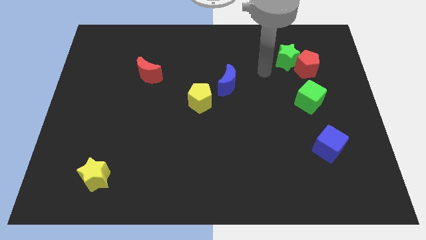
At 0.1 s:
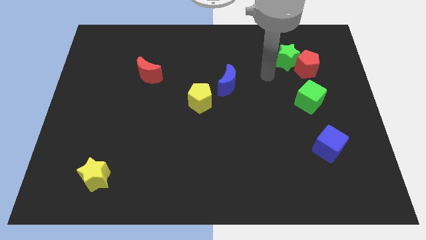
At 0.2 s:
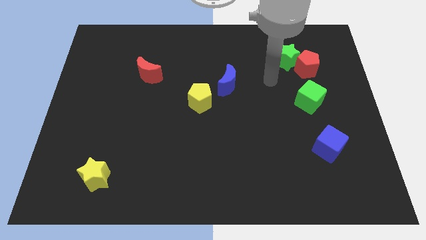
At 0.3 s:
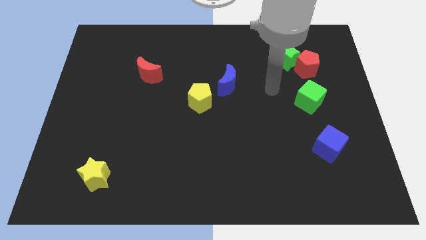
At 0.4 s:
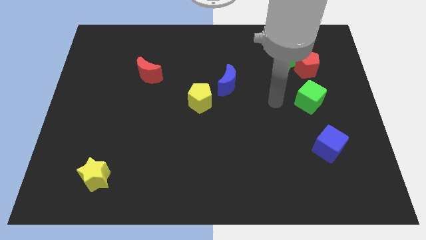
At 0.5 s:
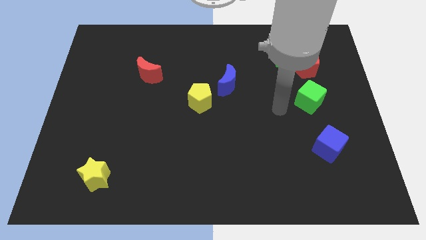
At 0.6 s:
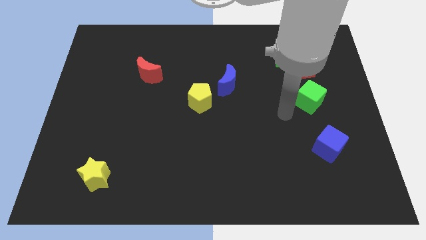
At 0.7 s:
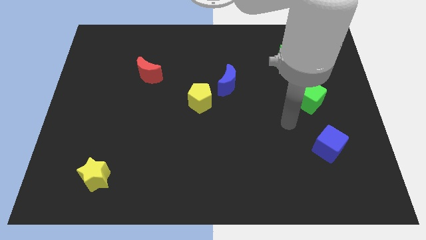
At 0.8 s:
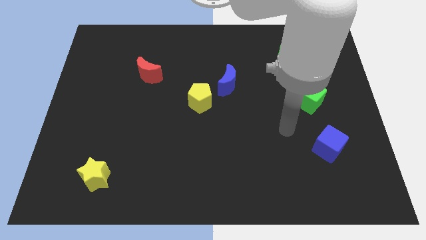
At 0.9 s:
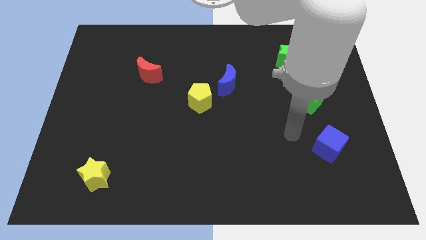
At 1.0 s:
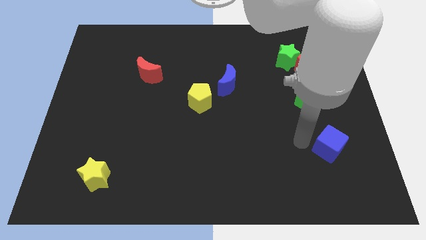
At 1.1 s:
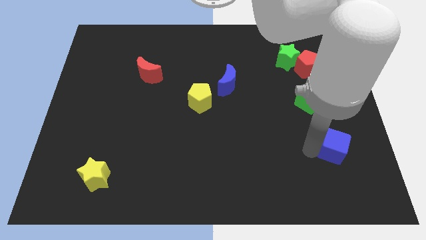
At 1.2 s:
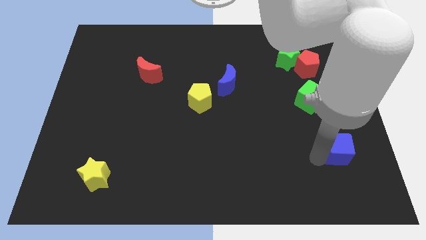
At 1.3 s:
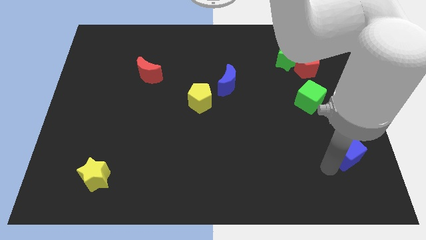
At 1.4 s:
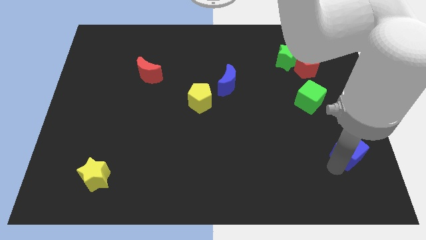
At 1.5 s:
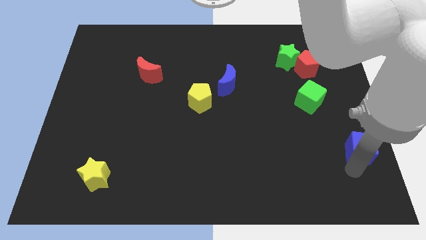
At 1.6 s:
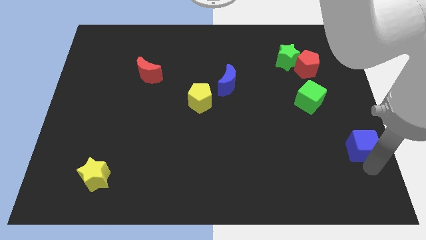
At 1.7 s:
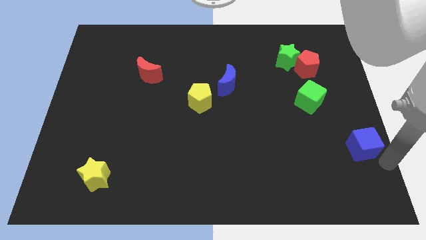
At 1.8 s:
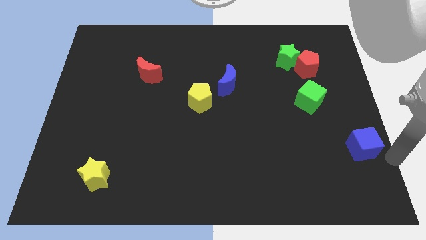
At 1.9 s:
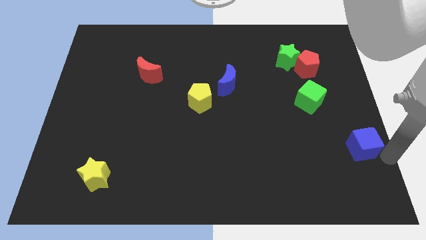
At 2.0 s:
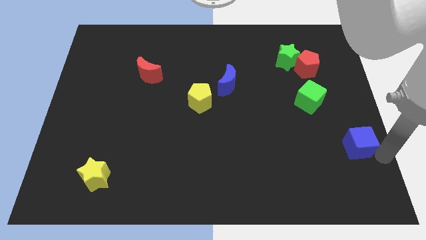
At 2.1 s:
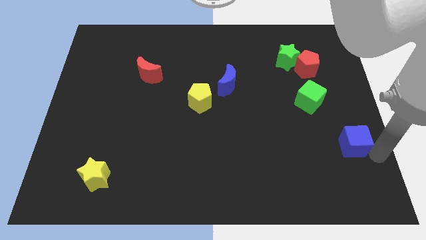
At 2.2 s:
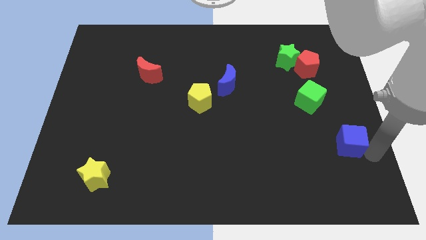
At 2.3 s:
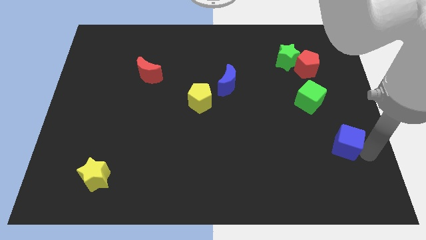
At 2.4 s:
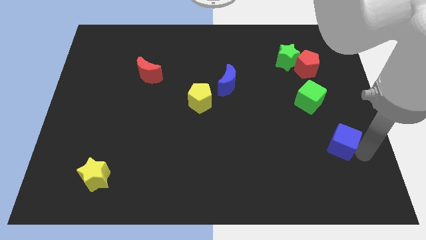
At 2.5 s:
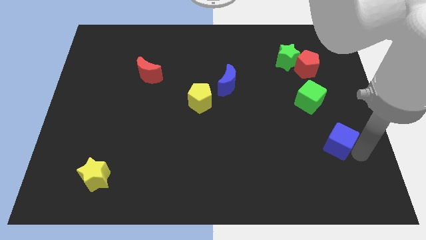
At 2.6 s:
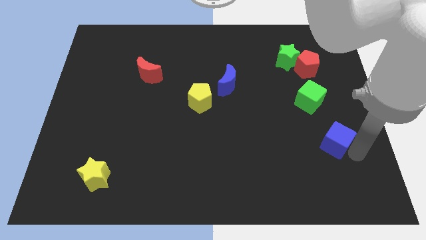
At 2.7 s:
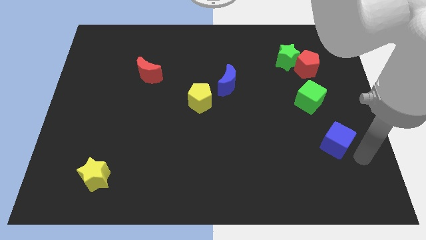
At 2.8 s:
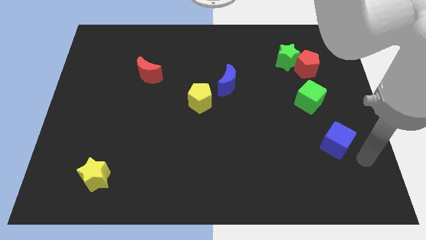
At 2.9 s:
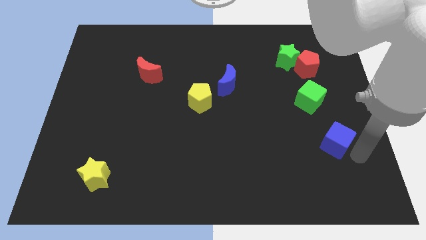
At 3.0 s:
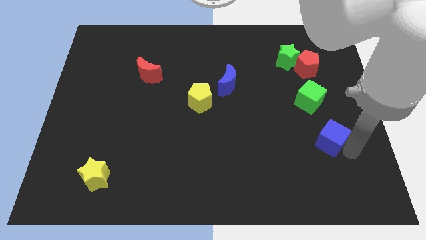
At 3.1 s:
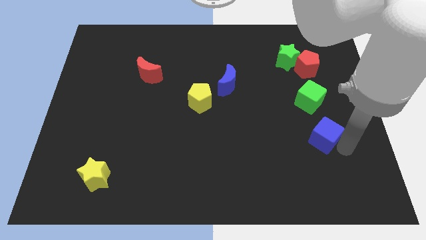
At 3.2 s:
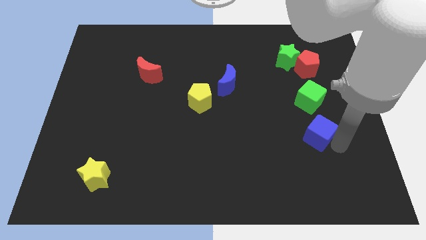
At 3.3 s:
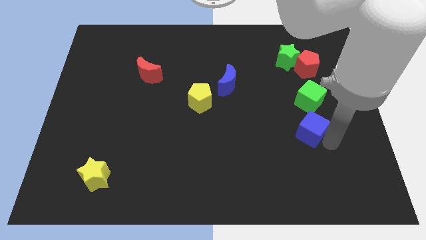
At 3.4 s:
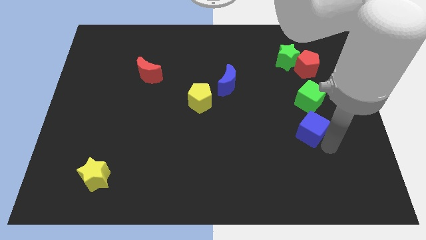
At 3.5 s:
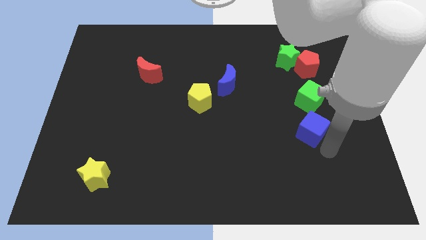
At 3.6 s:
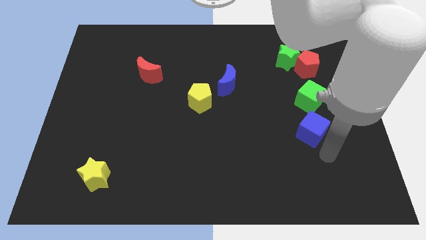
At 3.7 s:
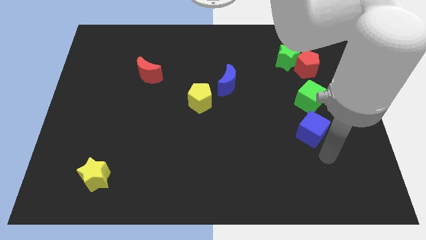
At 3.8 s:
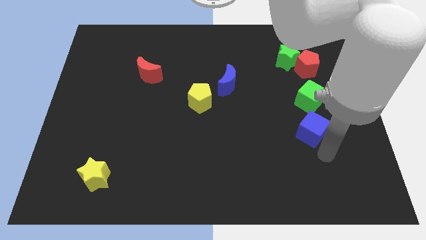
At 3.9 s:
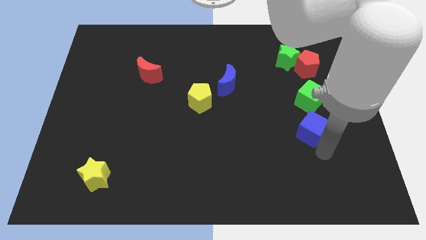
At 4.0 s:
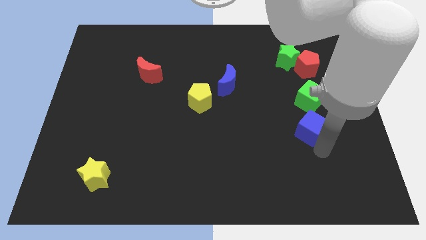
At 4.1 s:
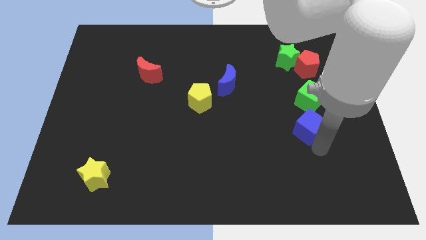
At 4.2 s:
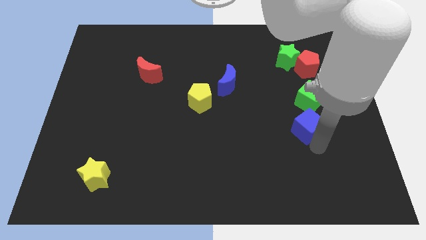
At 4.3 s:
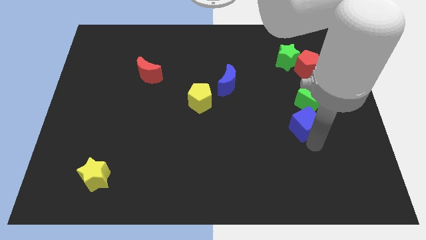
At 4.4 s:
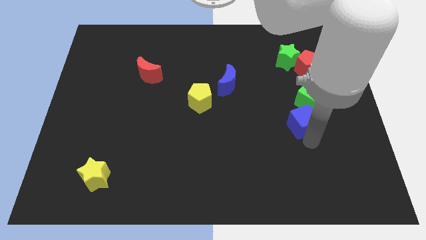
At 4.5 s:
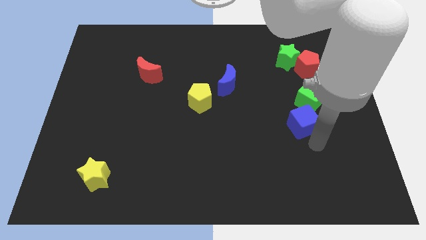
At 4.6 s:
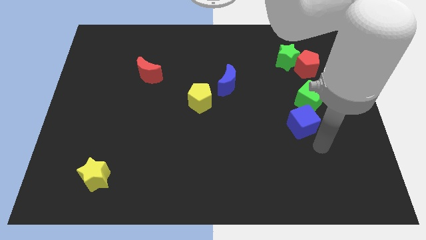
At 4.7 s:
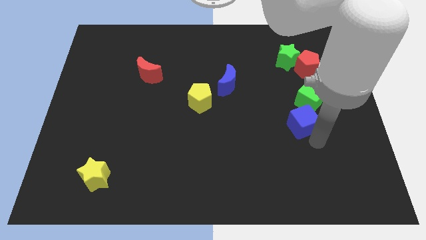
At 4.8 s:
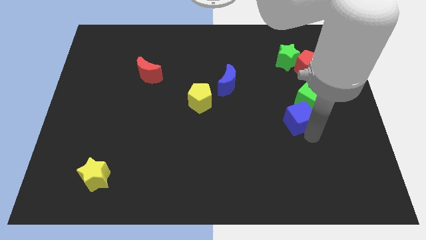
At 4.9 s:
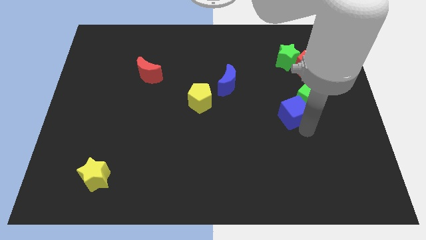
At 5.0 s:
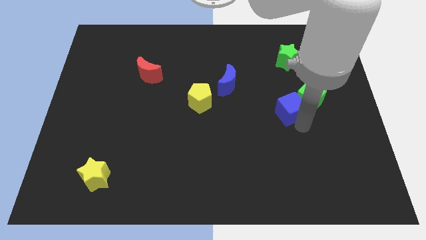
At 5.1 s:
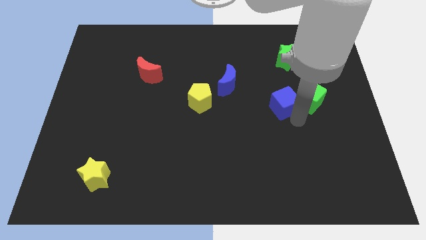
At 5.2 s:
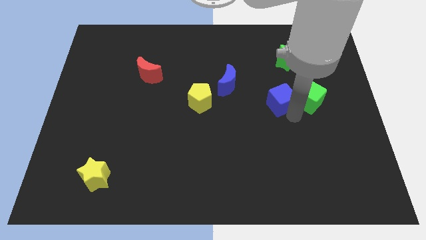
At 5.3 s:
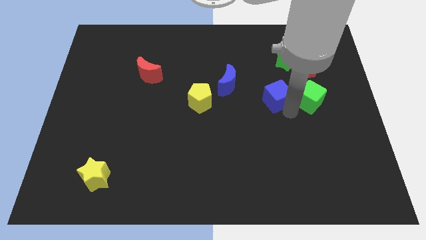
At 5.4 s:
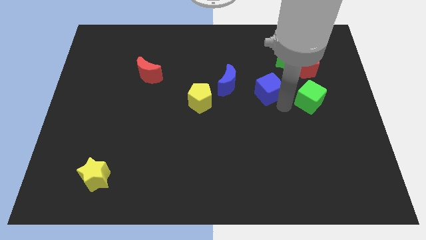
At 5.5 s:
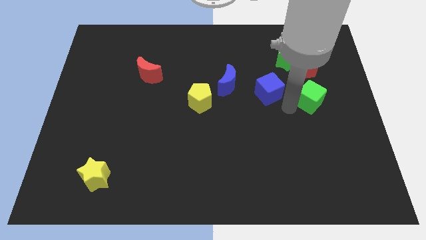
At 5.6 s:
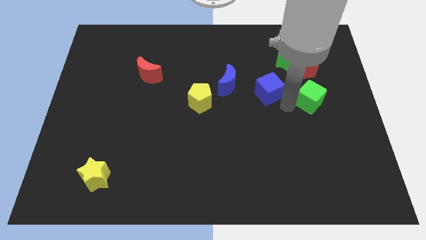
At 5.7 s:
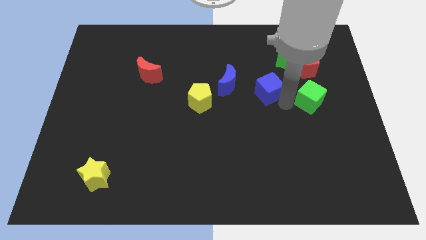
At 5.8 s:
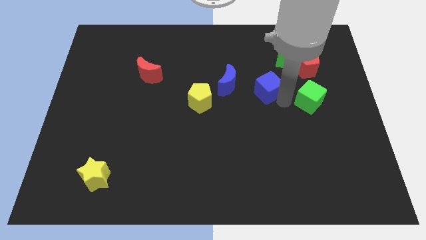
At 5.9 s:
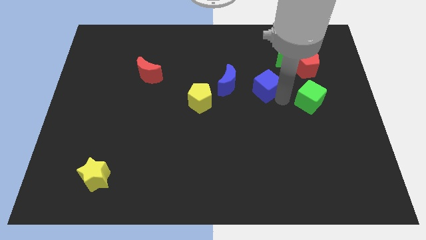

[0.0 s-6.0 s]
slide the blue cube up and to the left

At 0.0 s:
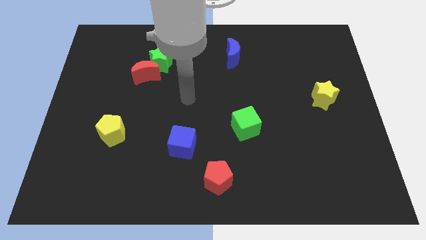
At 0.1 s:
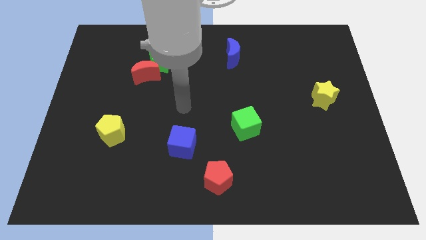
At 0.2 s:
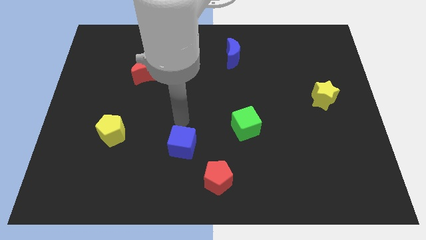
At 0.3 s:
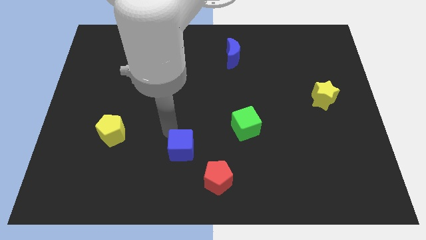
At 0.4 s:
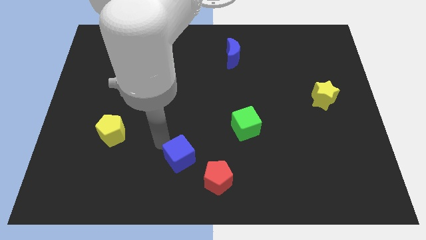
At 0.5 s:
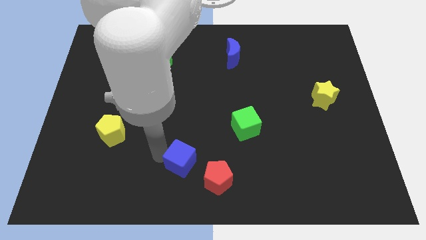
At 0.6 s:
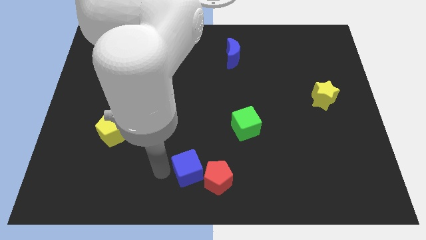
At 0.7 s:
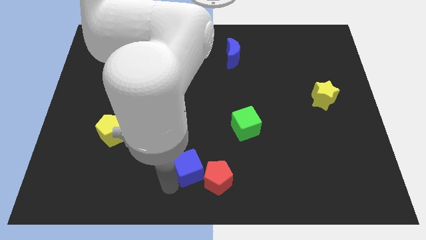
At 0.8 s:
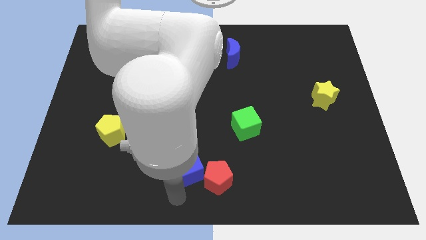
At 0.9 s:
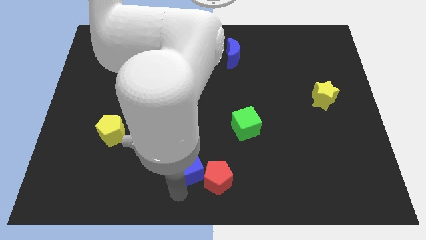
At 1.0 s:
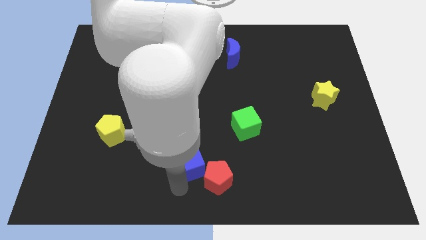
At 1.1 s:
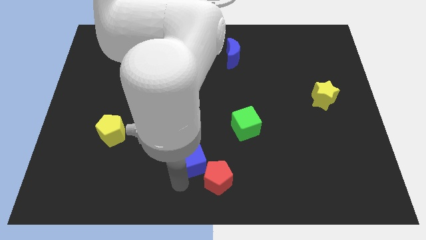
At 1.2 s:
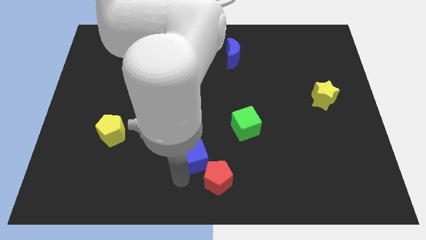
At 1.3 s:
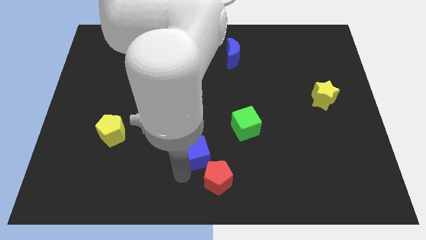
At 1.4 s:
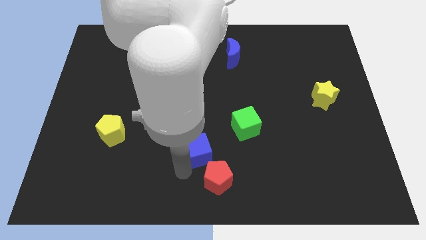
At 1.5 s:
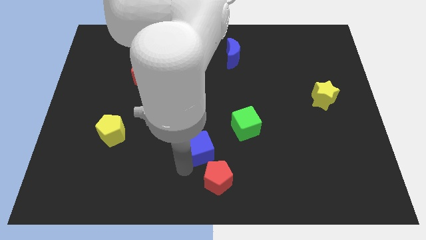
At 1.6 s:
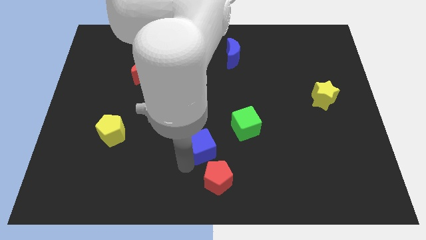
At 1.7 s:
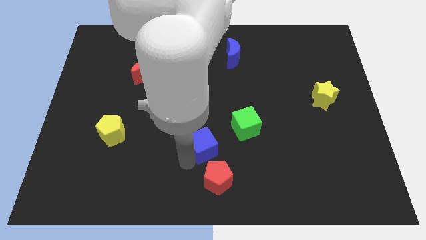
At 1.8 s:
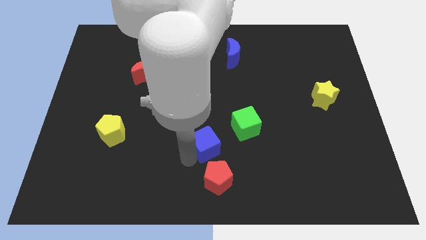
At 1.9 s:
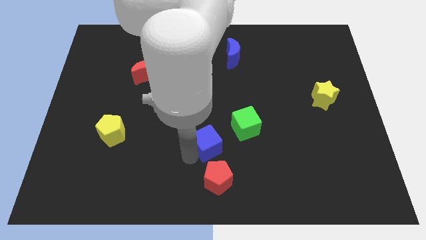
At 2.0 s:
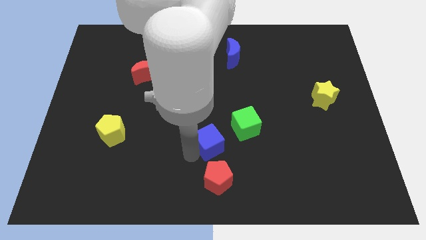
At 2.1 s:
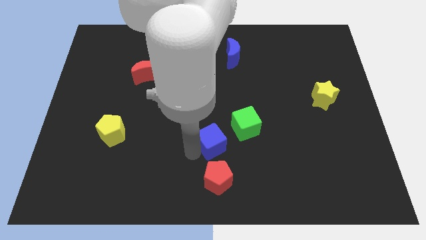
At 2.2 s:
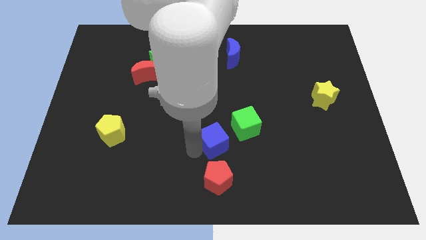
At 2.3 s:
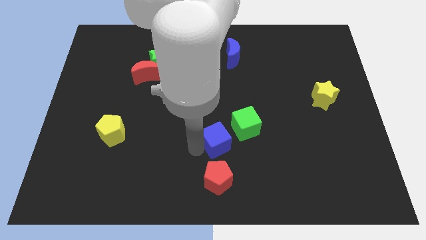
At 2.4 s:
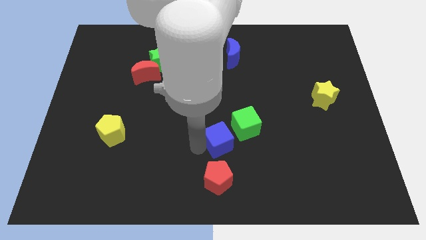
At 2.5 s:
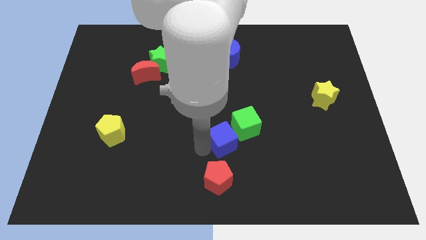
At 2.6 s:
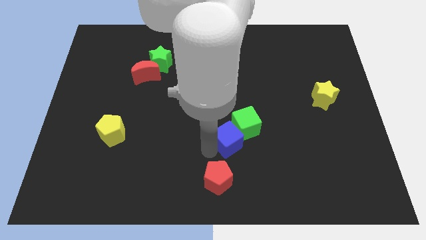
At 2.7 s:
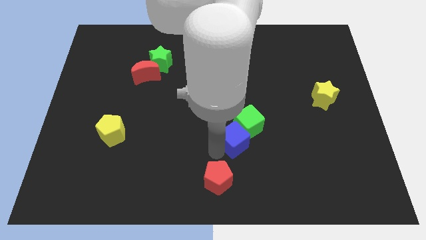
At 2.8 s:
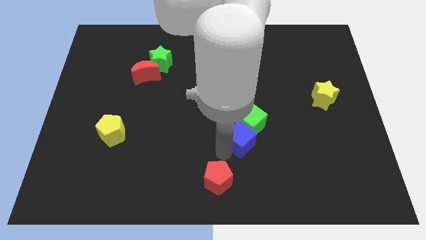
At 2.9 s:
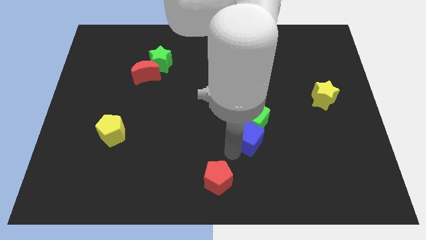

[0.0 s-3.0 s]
slightly slide the blue cube up and to the right diagonally
